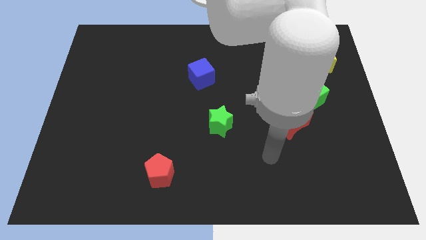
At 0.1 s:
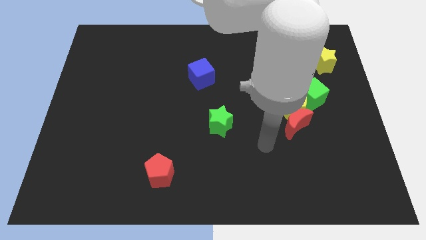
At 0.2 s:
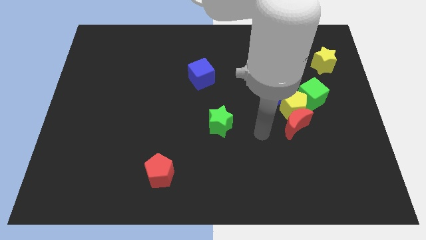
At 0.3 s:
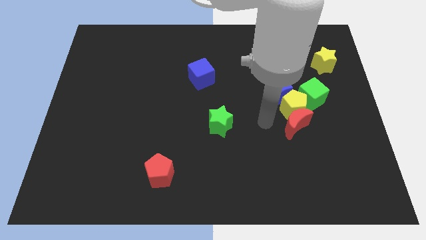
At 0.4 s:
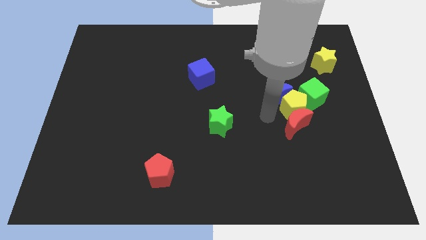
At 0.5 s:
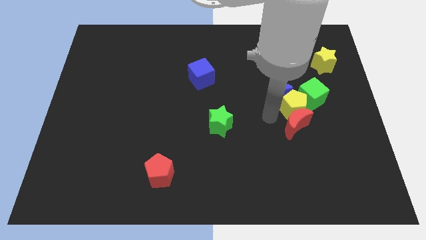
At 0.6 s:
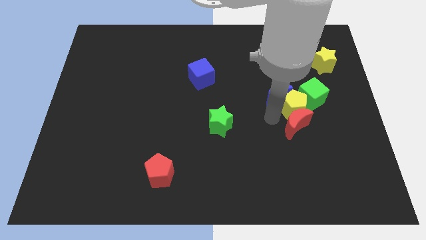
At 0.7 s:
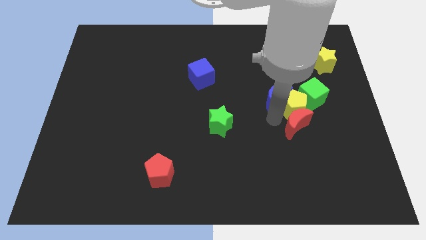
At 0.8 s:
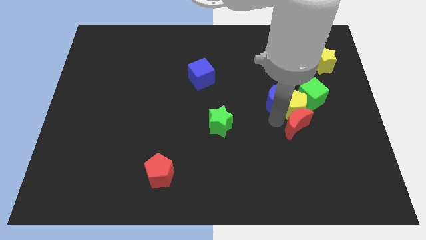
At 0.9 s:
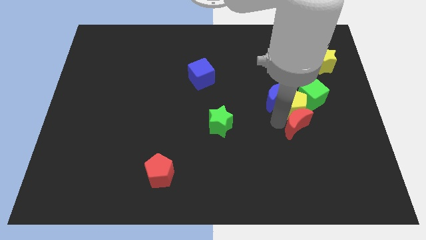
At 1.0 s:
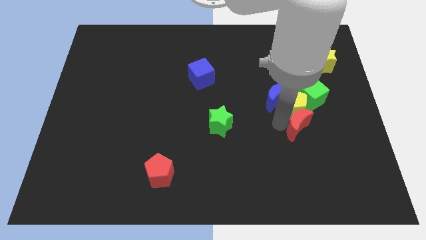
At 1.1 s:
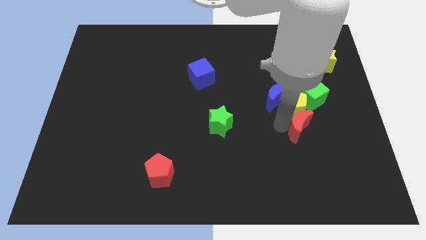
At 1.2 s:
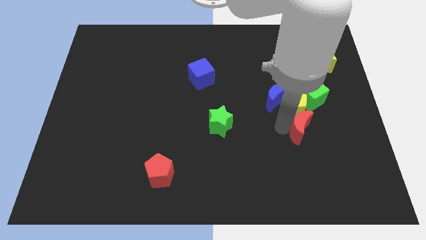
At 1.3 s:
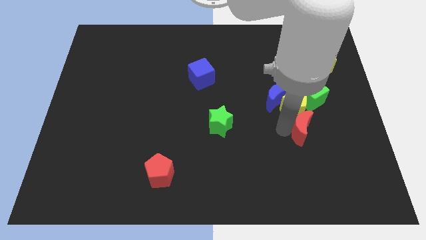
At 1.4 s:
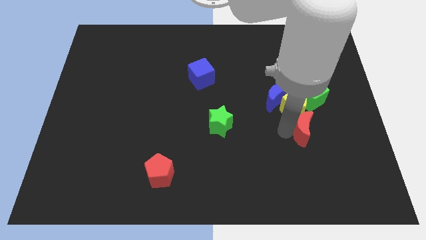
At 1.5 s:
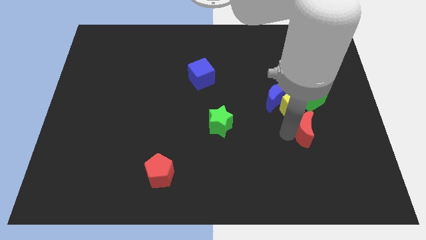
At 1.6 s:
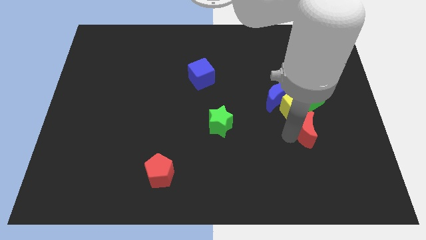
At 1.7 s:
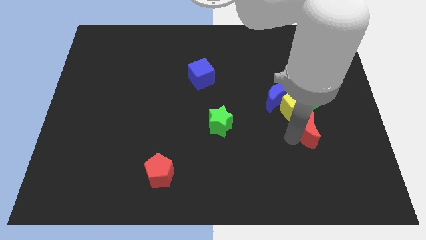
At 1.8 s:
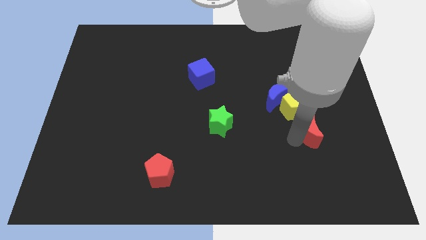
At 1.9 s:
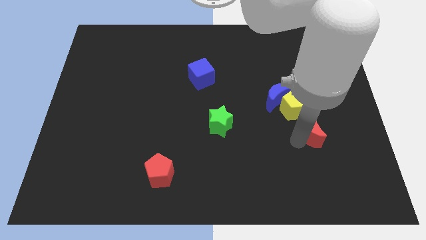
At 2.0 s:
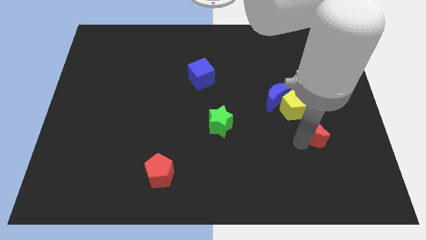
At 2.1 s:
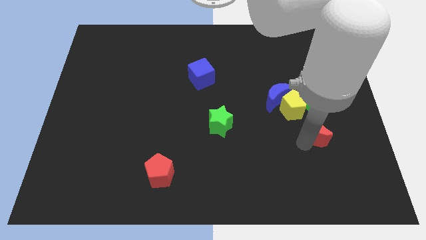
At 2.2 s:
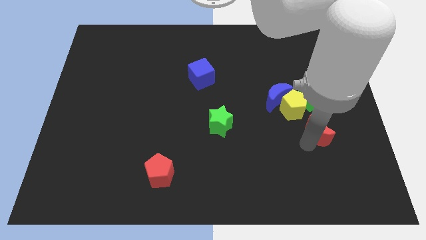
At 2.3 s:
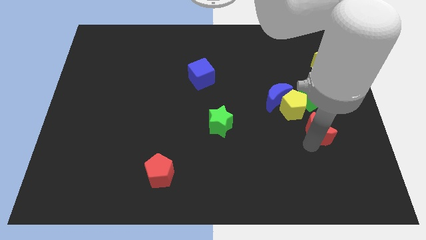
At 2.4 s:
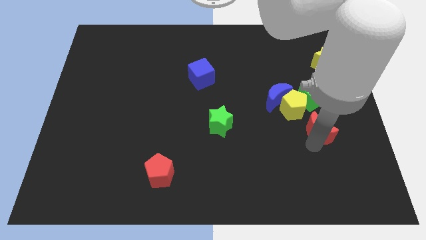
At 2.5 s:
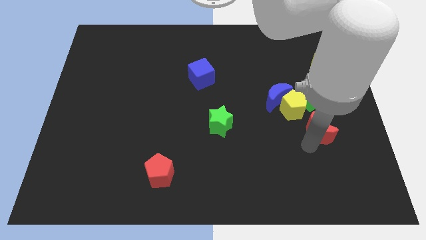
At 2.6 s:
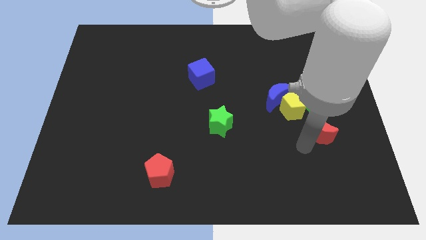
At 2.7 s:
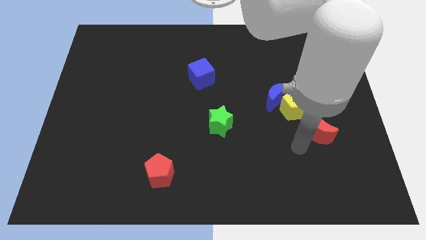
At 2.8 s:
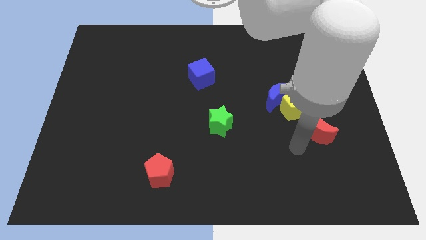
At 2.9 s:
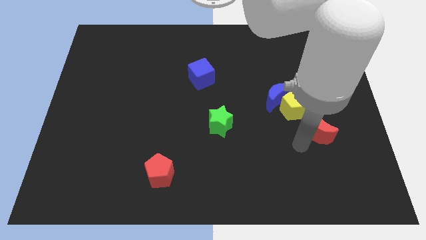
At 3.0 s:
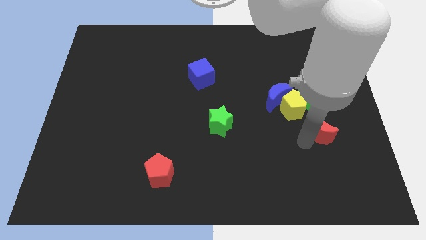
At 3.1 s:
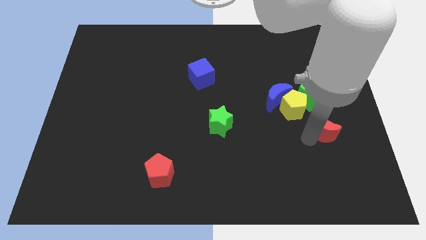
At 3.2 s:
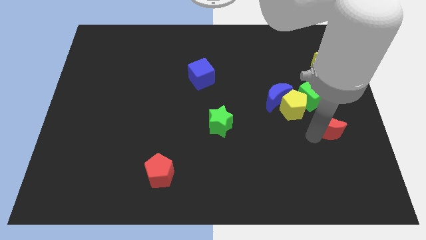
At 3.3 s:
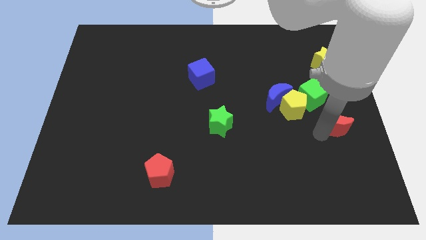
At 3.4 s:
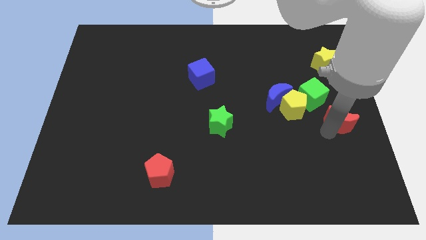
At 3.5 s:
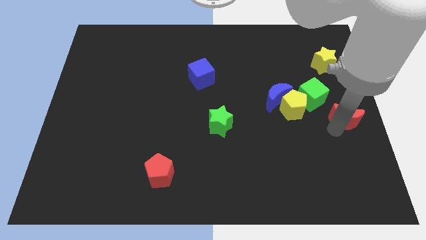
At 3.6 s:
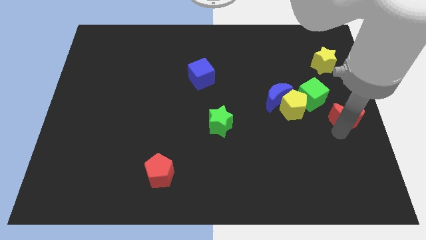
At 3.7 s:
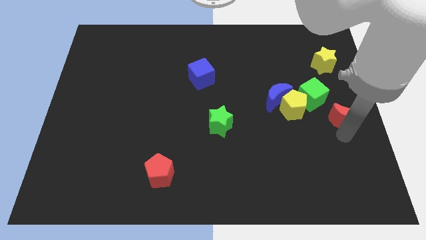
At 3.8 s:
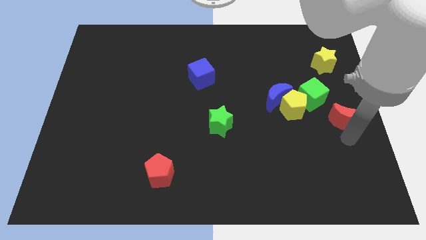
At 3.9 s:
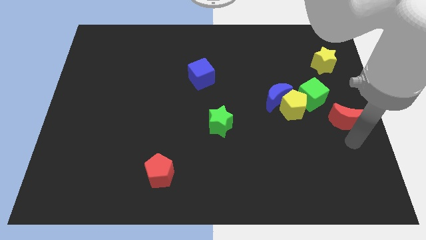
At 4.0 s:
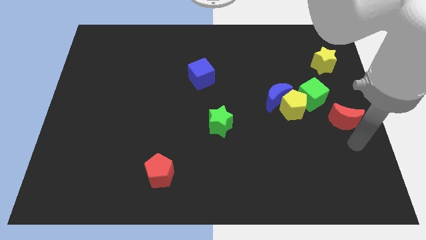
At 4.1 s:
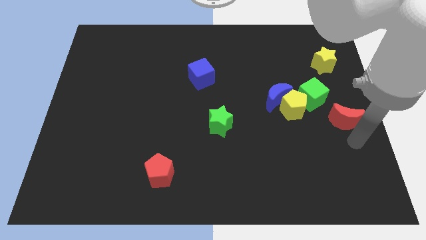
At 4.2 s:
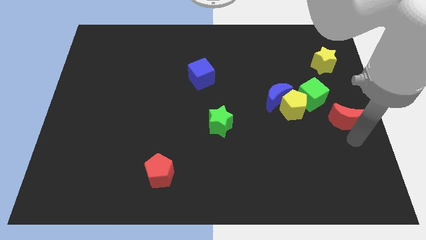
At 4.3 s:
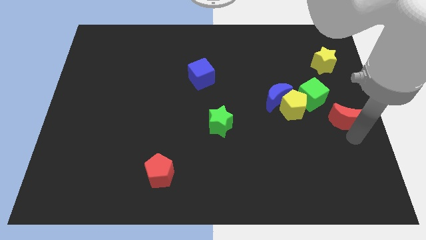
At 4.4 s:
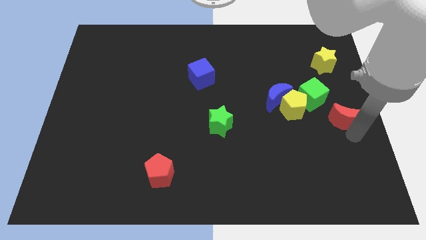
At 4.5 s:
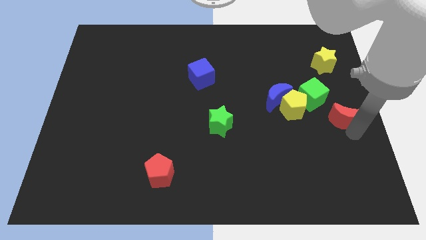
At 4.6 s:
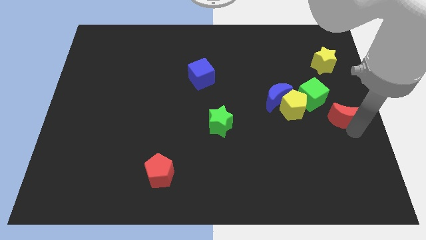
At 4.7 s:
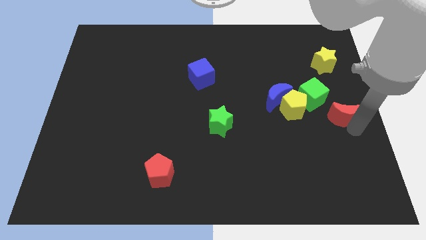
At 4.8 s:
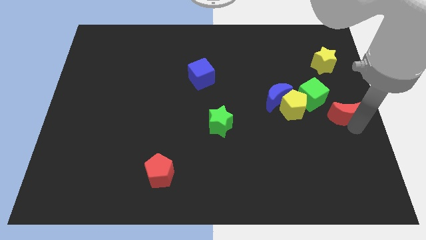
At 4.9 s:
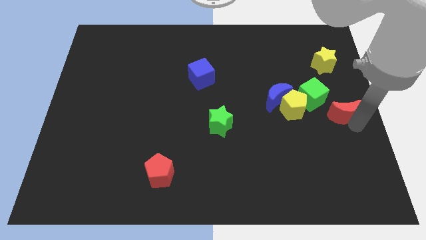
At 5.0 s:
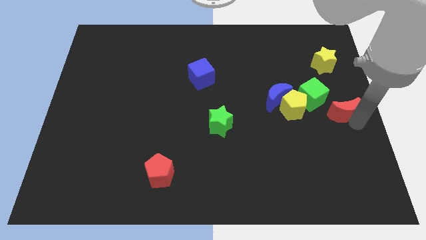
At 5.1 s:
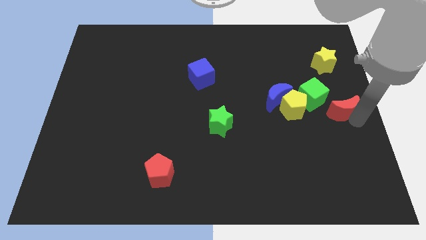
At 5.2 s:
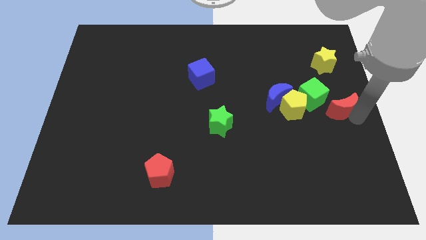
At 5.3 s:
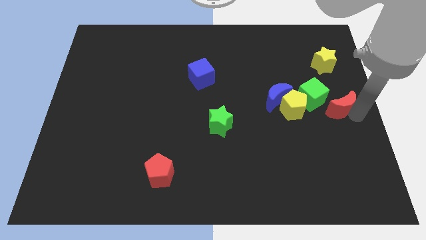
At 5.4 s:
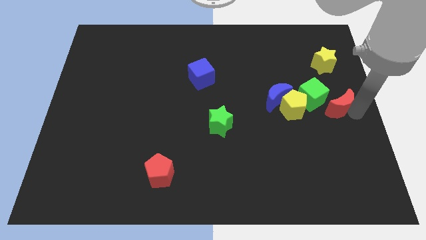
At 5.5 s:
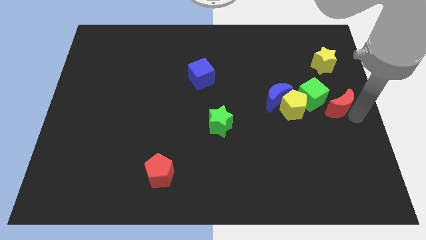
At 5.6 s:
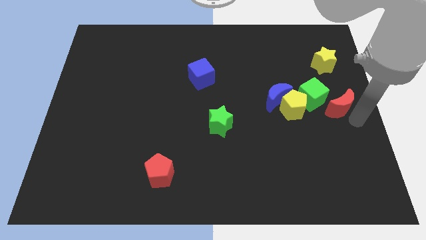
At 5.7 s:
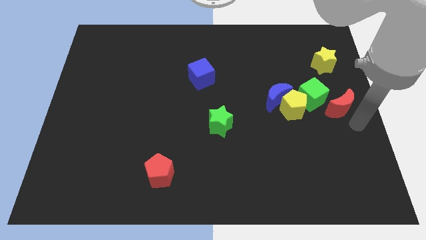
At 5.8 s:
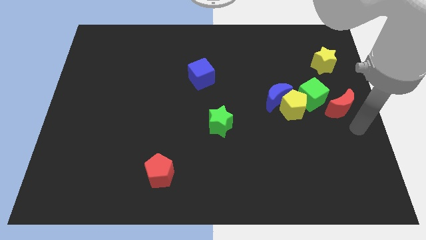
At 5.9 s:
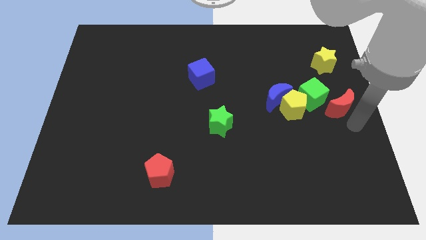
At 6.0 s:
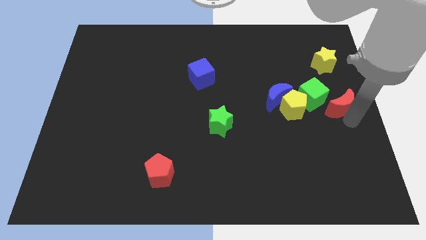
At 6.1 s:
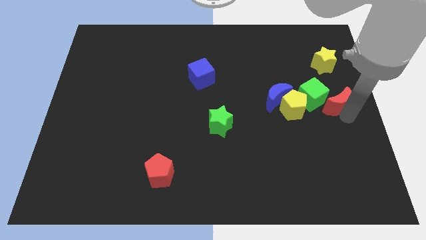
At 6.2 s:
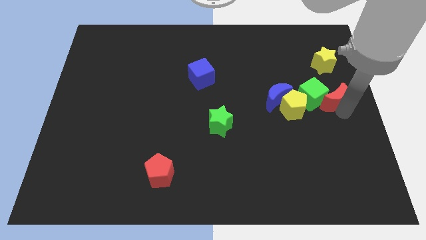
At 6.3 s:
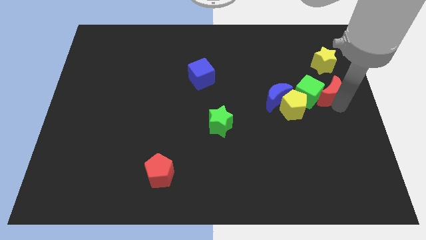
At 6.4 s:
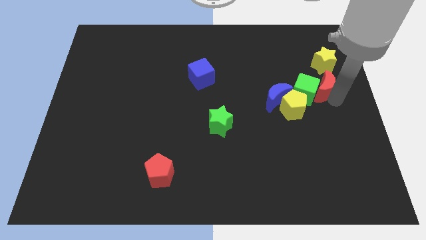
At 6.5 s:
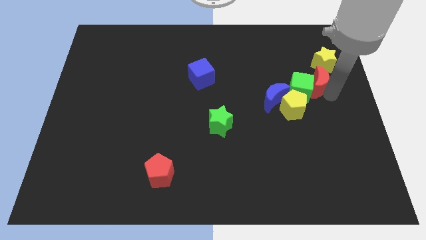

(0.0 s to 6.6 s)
slide the red moon to the bottom left side of the yellow star
